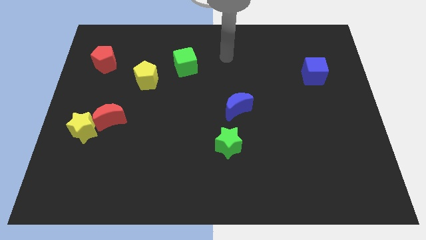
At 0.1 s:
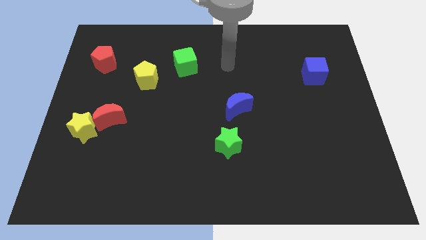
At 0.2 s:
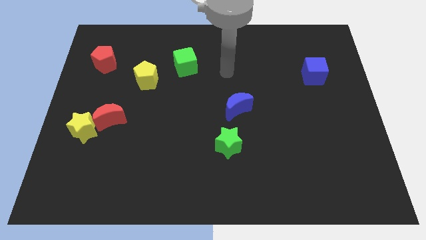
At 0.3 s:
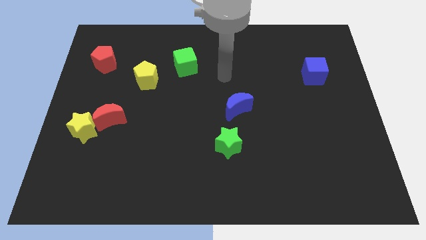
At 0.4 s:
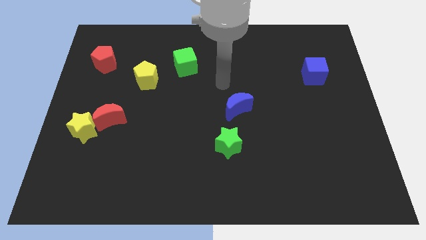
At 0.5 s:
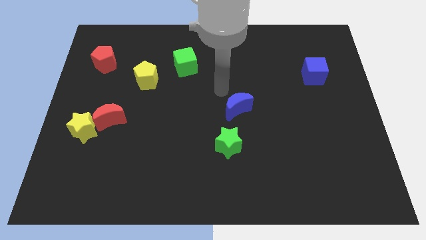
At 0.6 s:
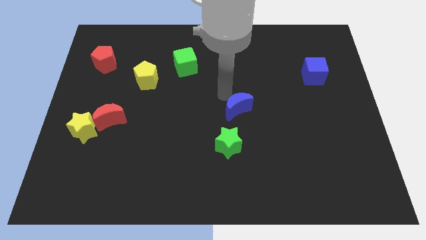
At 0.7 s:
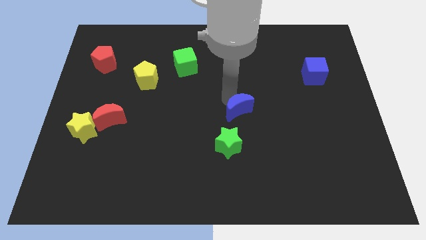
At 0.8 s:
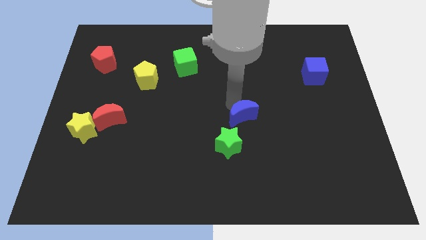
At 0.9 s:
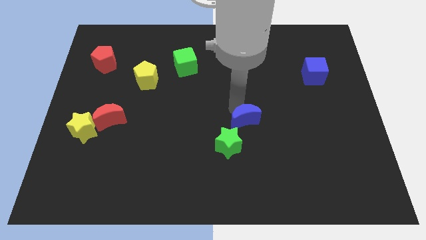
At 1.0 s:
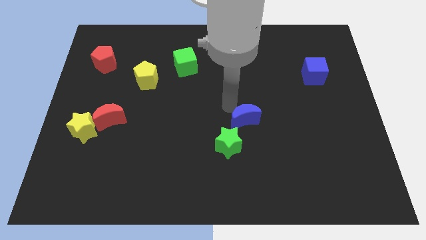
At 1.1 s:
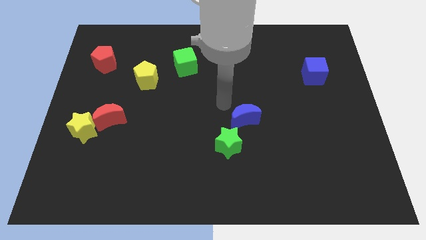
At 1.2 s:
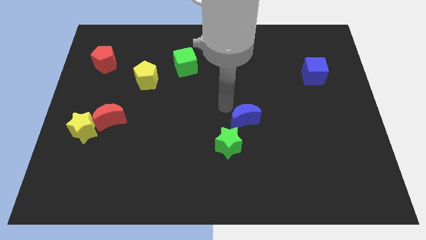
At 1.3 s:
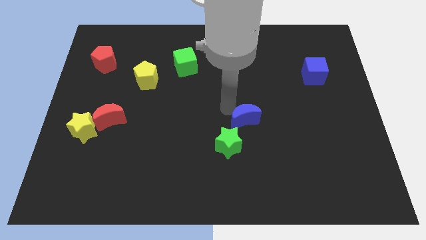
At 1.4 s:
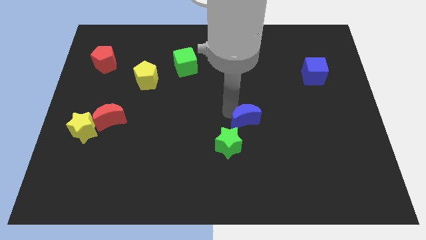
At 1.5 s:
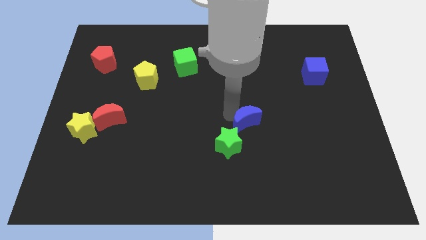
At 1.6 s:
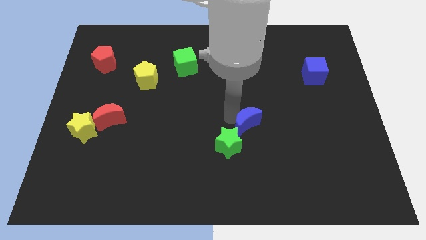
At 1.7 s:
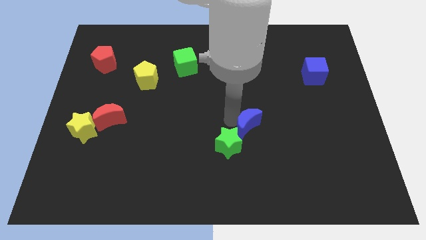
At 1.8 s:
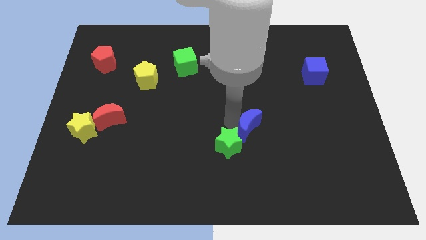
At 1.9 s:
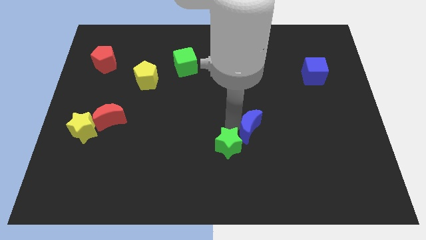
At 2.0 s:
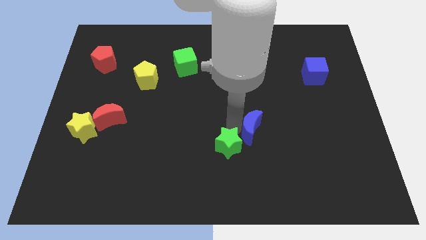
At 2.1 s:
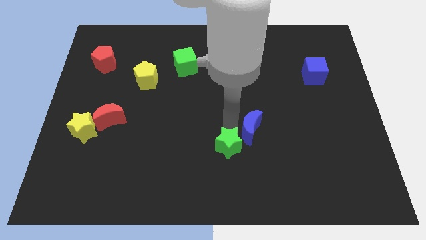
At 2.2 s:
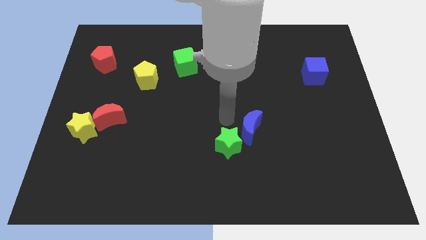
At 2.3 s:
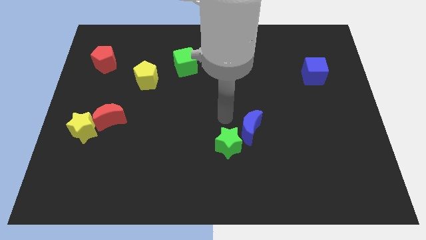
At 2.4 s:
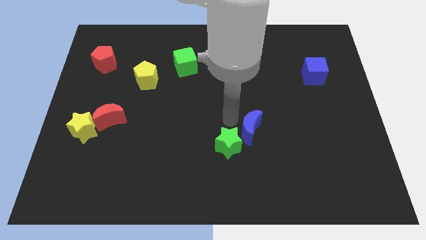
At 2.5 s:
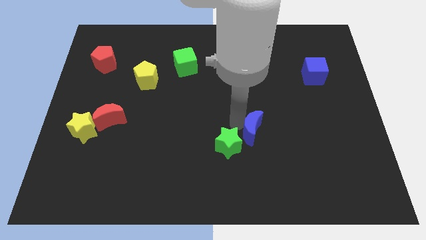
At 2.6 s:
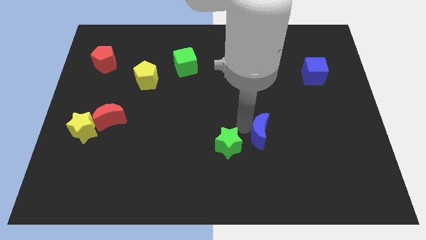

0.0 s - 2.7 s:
move the blue moon down and right diagonally slightly

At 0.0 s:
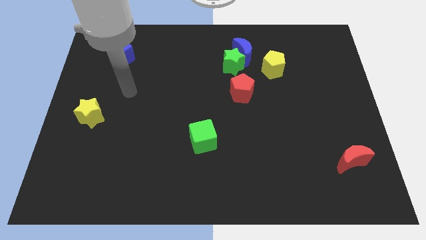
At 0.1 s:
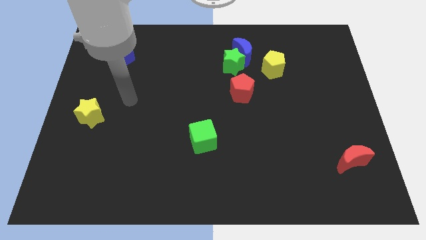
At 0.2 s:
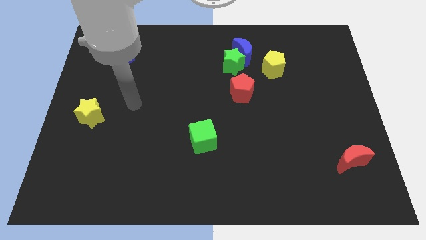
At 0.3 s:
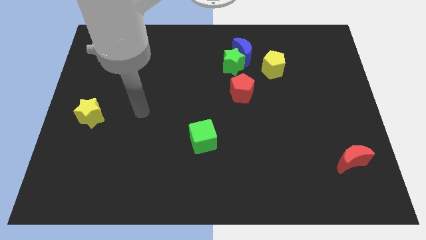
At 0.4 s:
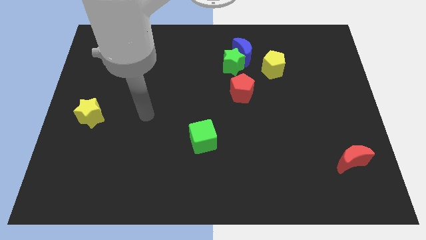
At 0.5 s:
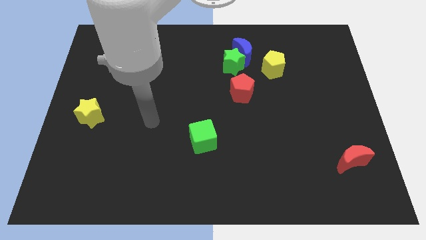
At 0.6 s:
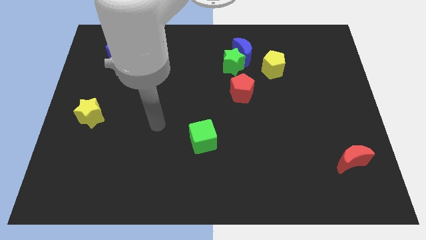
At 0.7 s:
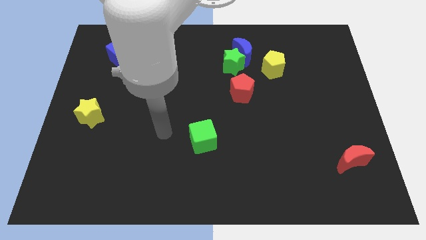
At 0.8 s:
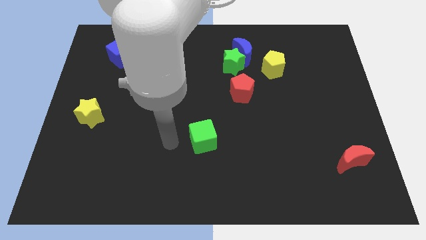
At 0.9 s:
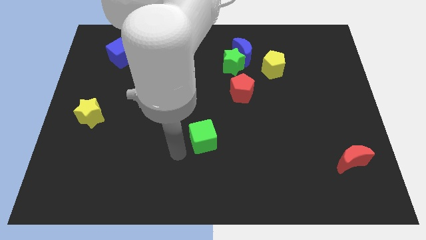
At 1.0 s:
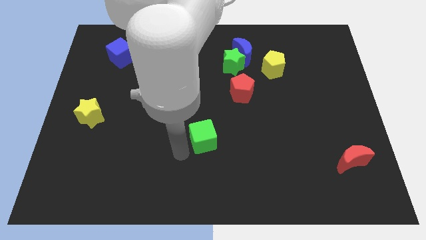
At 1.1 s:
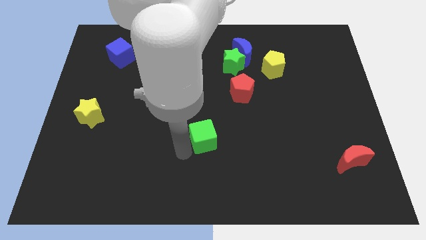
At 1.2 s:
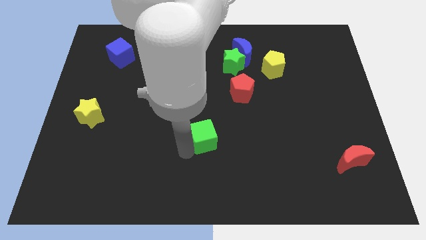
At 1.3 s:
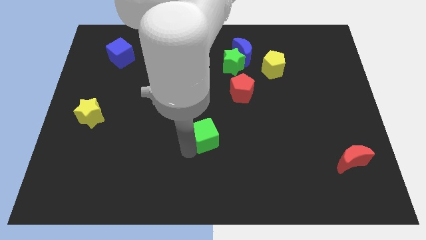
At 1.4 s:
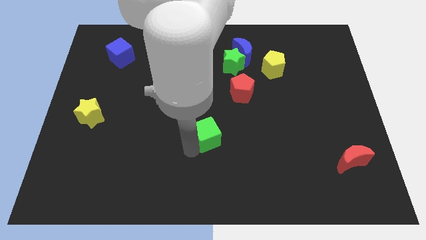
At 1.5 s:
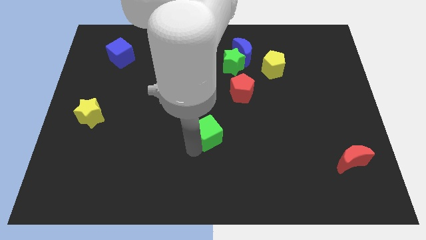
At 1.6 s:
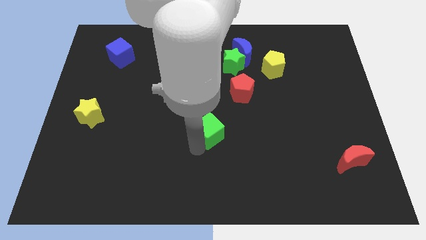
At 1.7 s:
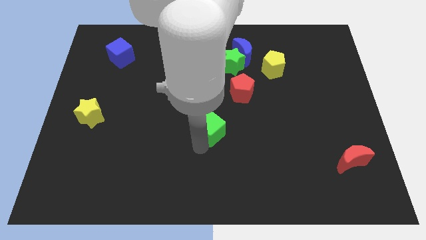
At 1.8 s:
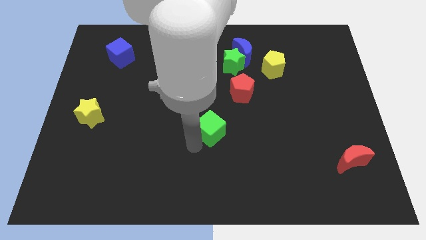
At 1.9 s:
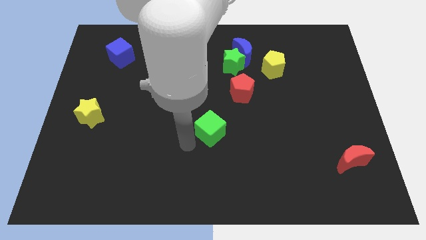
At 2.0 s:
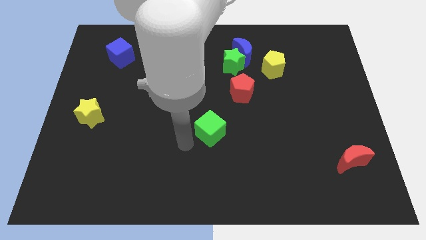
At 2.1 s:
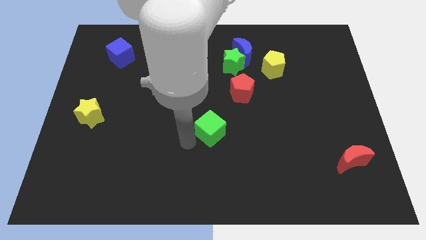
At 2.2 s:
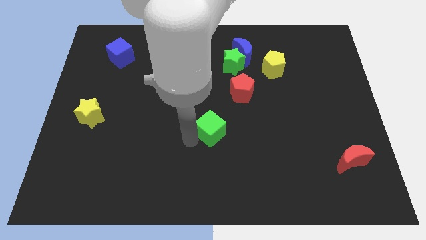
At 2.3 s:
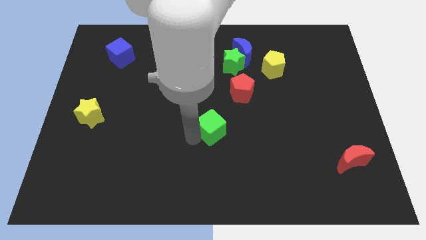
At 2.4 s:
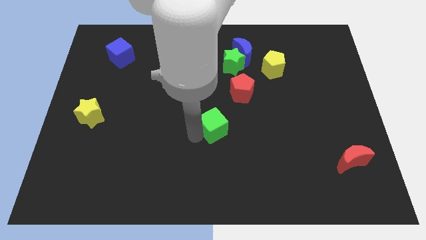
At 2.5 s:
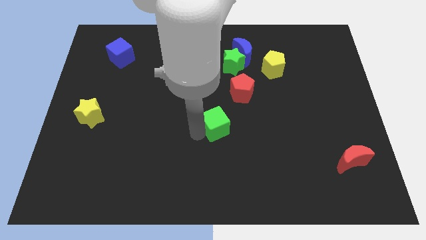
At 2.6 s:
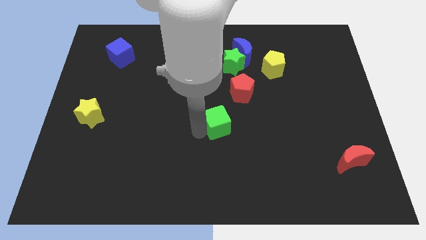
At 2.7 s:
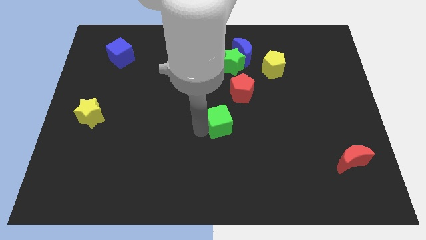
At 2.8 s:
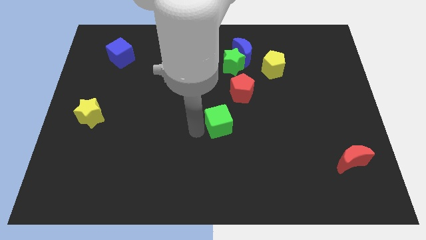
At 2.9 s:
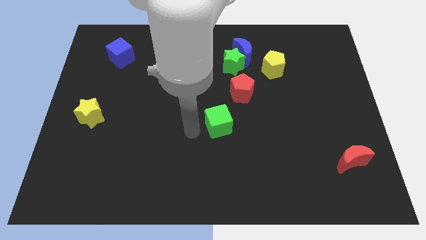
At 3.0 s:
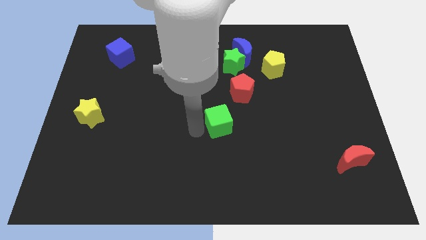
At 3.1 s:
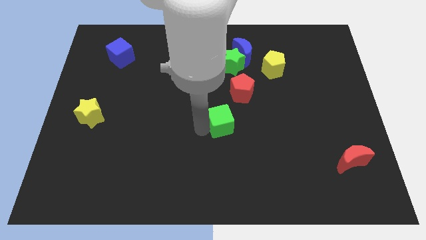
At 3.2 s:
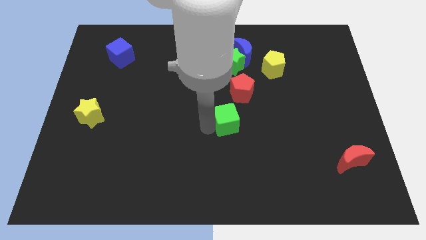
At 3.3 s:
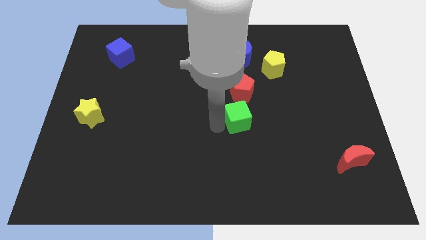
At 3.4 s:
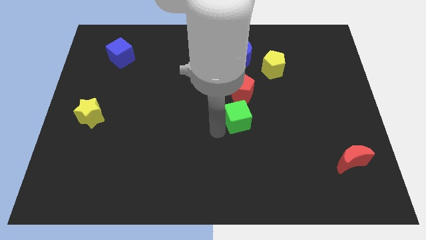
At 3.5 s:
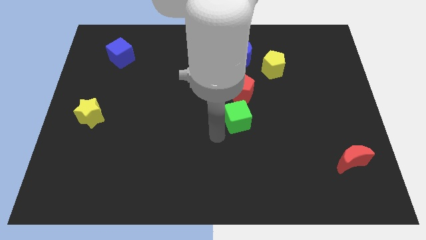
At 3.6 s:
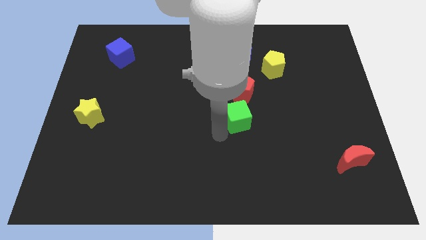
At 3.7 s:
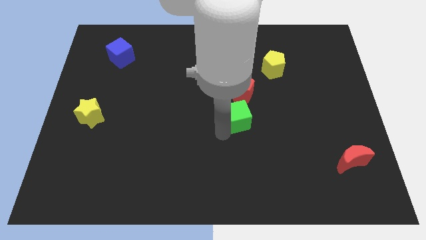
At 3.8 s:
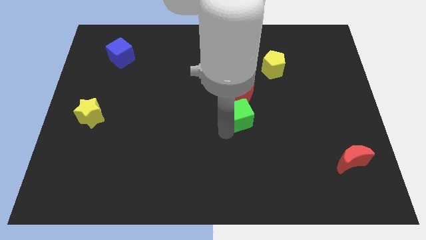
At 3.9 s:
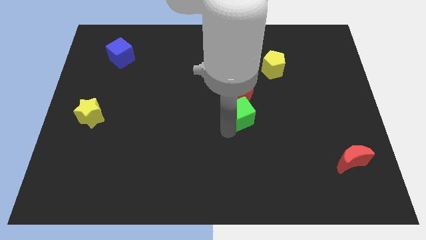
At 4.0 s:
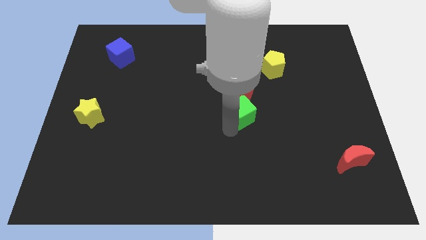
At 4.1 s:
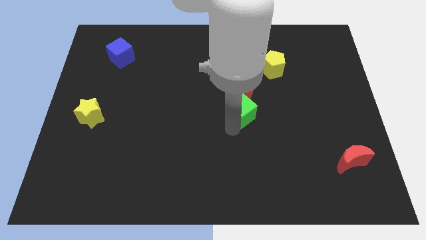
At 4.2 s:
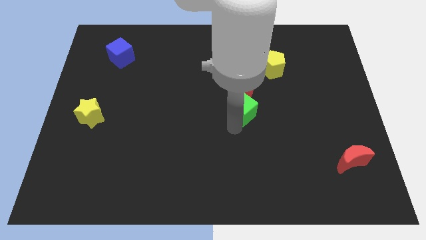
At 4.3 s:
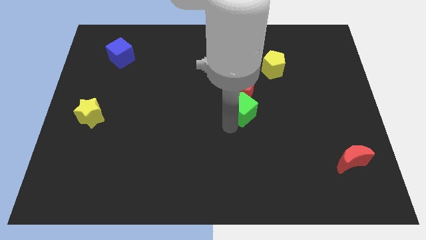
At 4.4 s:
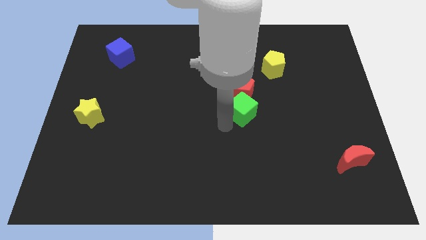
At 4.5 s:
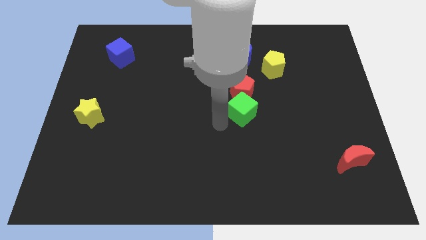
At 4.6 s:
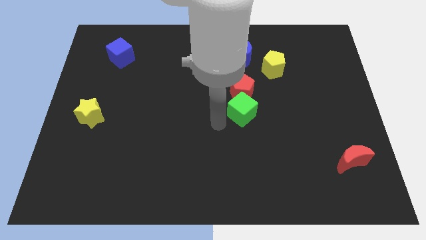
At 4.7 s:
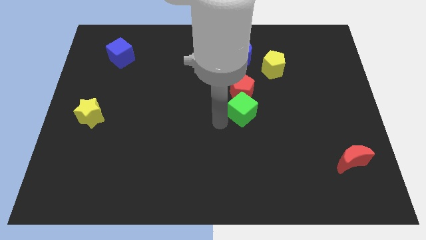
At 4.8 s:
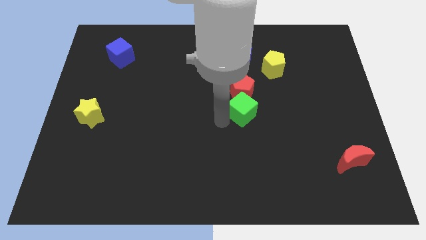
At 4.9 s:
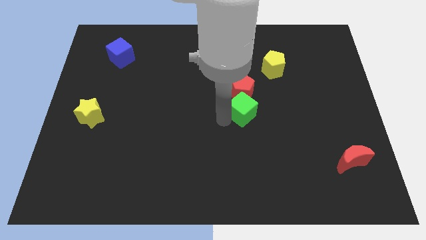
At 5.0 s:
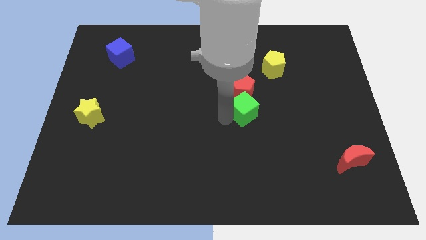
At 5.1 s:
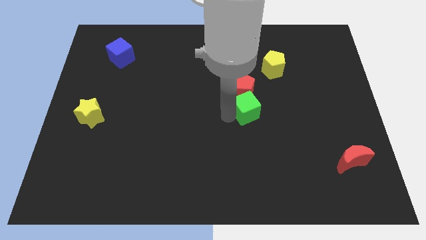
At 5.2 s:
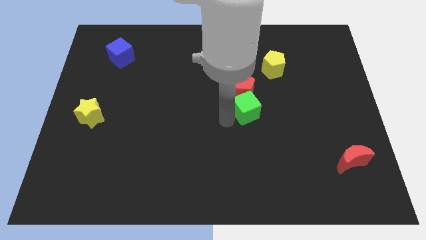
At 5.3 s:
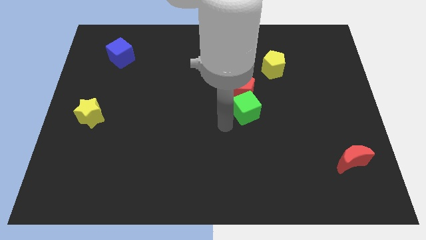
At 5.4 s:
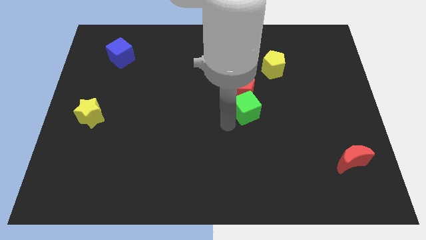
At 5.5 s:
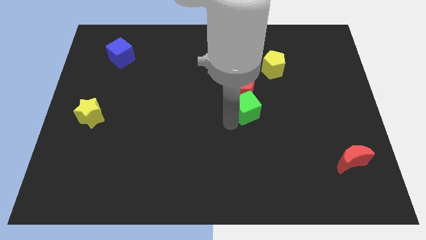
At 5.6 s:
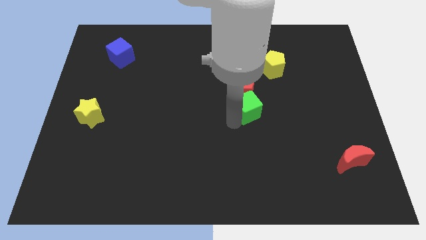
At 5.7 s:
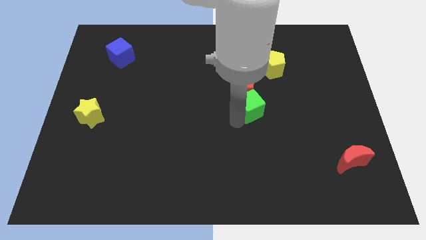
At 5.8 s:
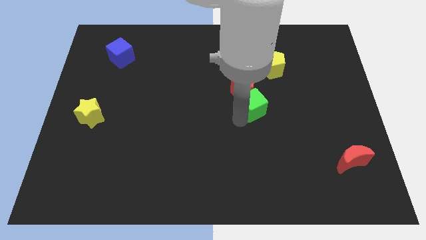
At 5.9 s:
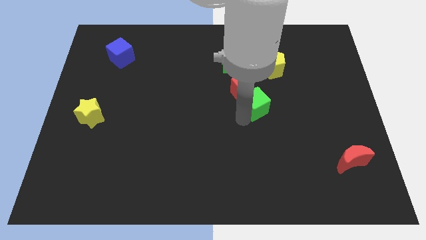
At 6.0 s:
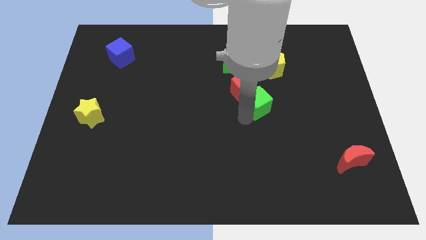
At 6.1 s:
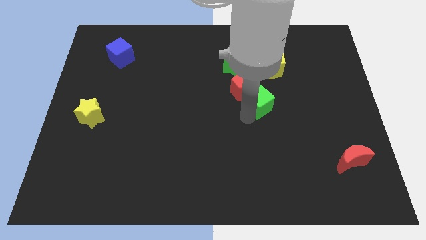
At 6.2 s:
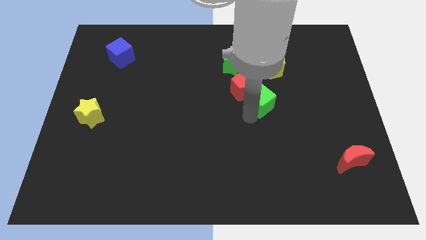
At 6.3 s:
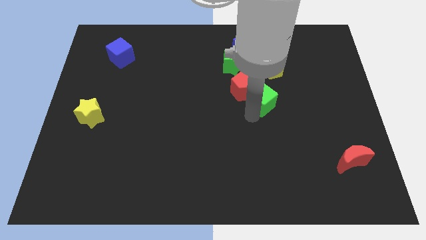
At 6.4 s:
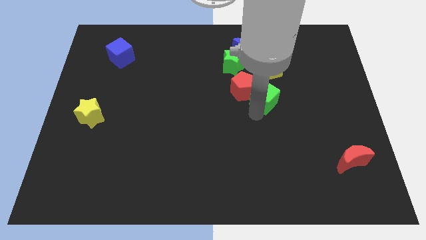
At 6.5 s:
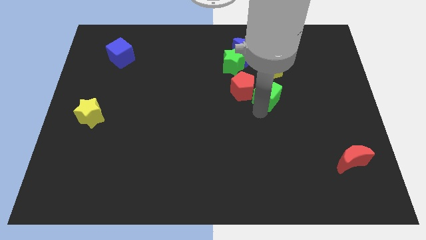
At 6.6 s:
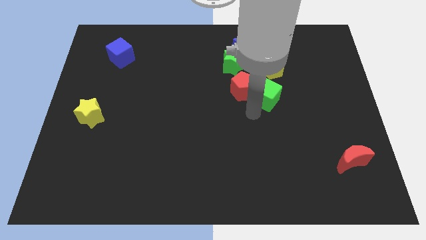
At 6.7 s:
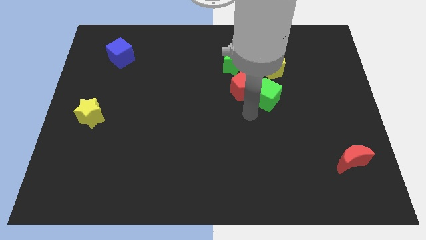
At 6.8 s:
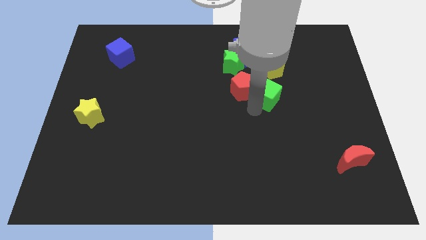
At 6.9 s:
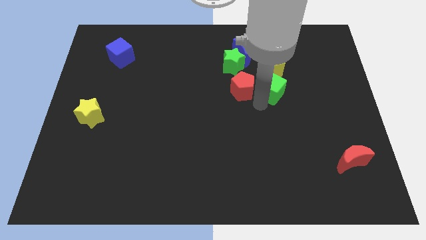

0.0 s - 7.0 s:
push the green cube up and right
